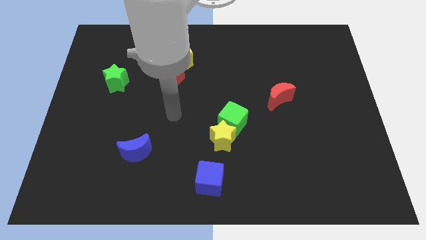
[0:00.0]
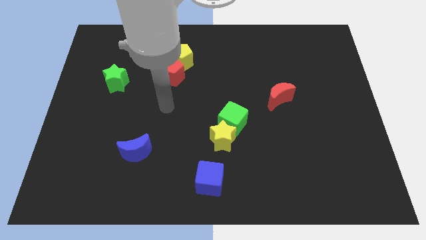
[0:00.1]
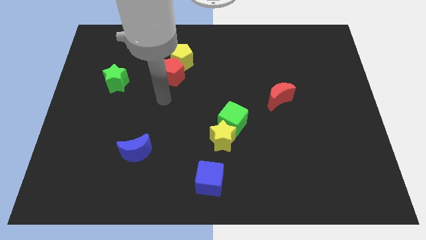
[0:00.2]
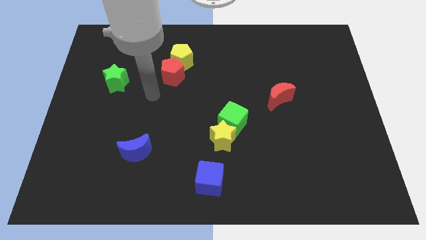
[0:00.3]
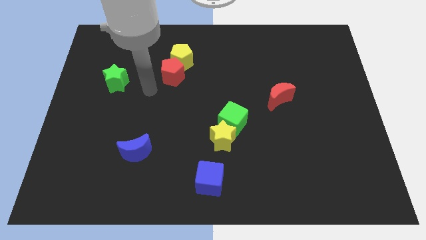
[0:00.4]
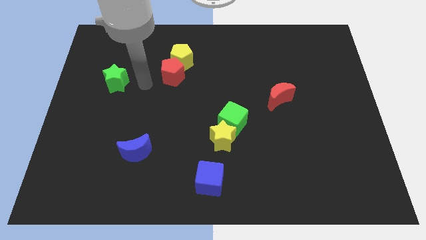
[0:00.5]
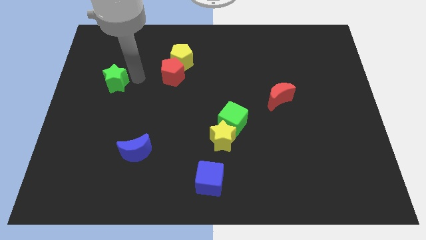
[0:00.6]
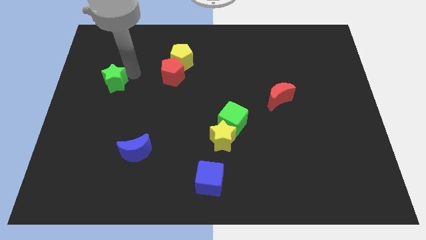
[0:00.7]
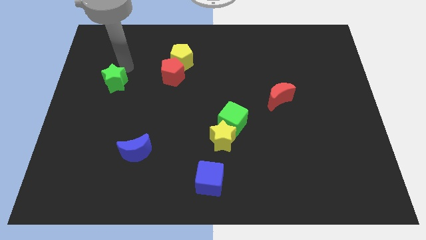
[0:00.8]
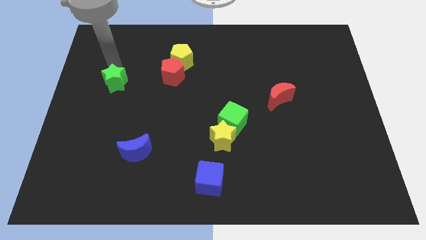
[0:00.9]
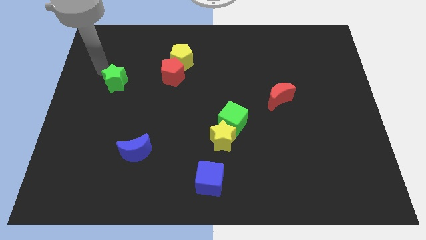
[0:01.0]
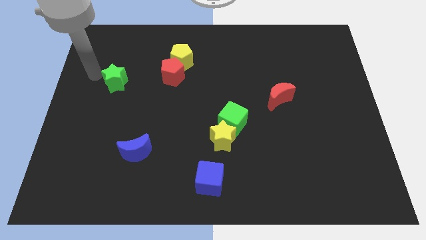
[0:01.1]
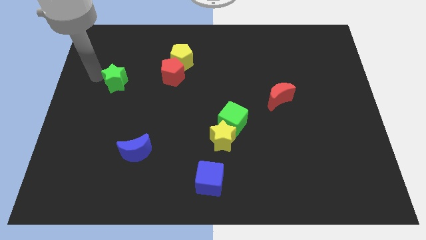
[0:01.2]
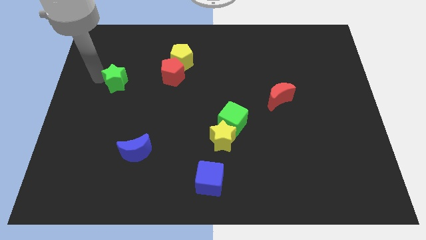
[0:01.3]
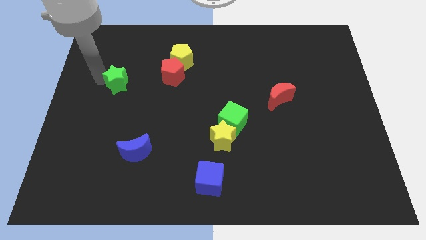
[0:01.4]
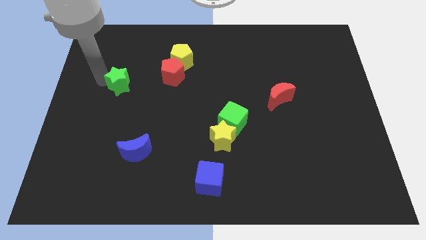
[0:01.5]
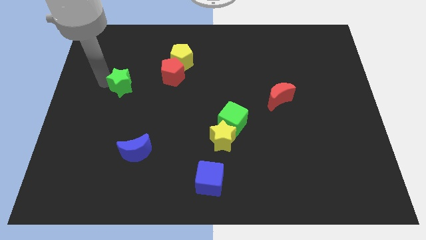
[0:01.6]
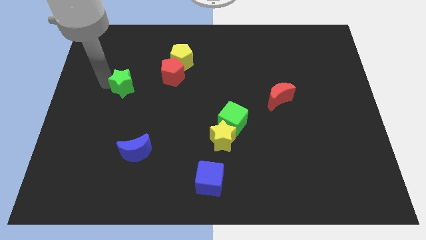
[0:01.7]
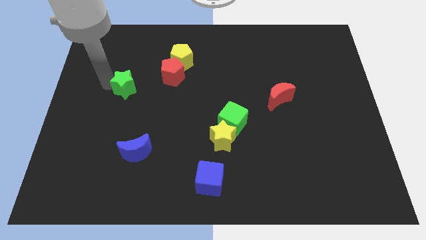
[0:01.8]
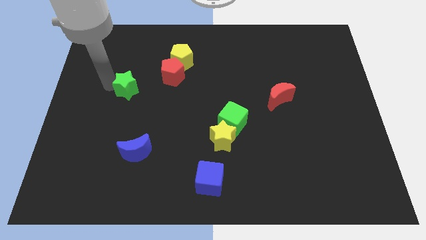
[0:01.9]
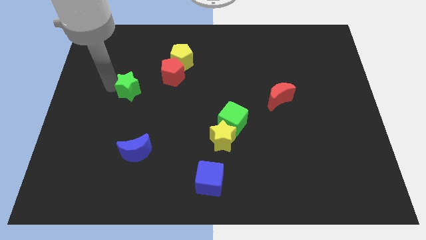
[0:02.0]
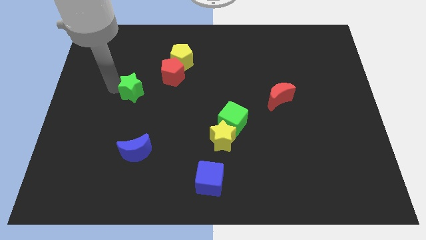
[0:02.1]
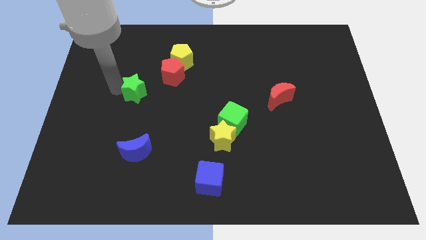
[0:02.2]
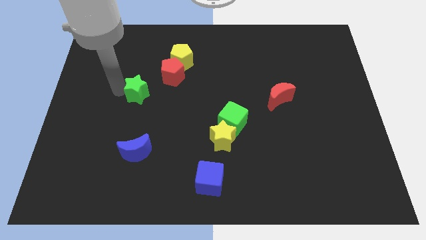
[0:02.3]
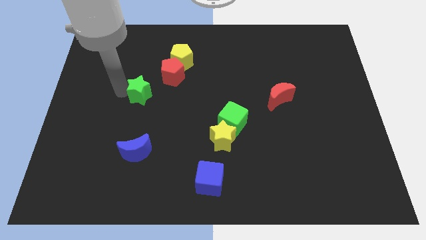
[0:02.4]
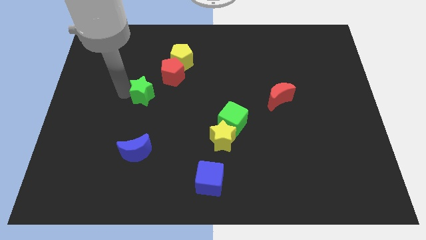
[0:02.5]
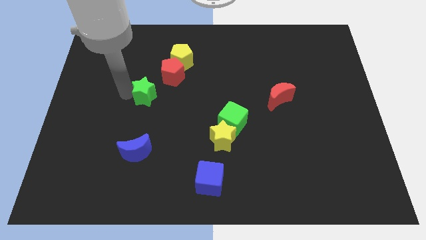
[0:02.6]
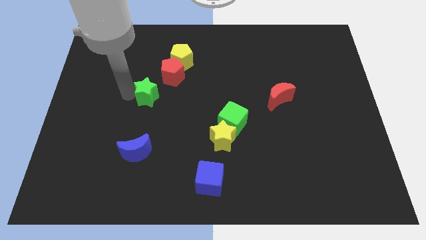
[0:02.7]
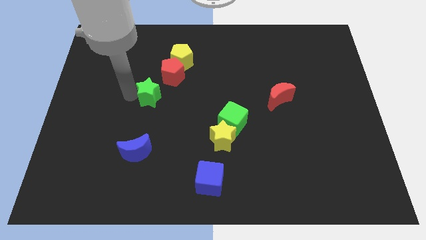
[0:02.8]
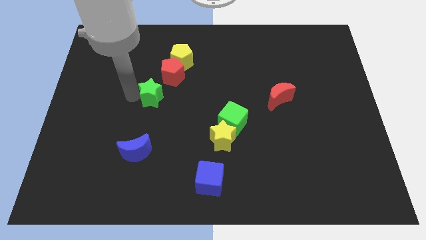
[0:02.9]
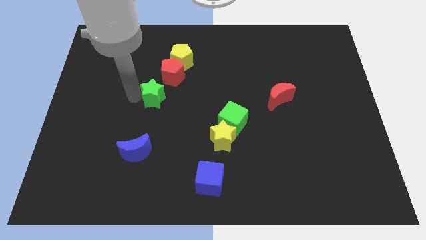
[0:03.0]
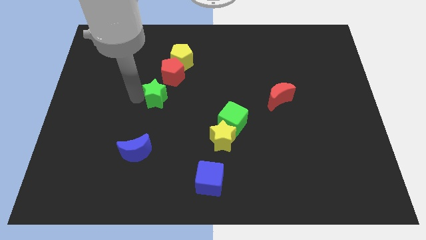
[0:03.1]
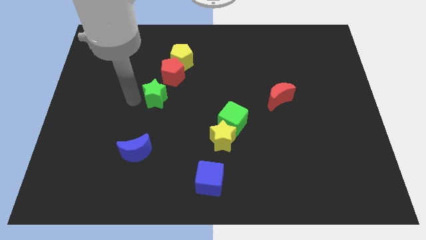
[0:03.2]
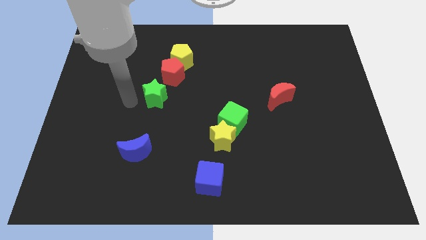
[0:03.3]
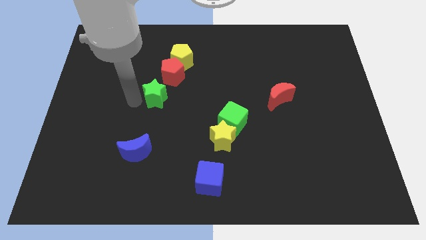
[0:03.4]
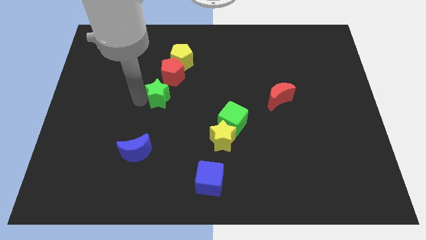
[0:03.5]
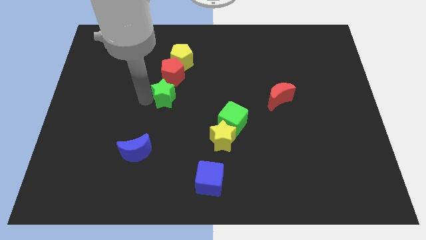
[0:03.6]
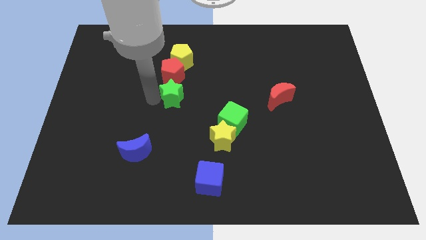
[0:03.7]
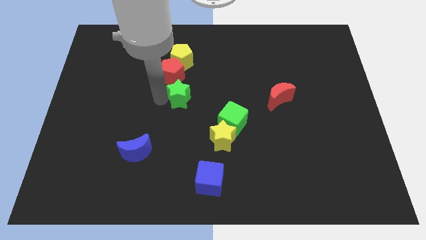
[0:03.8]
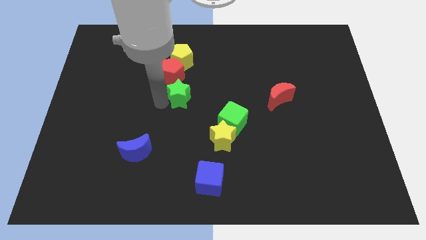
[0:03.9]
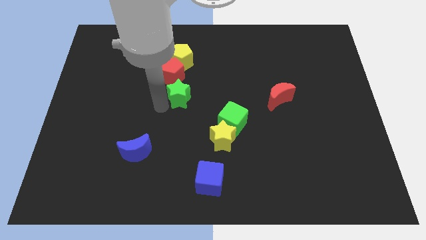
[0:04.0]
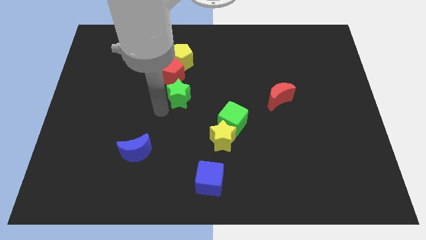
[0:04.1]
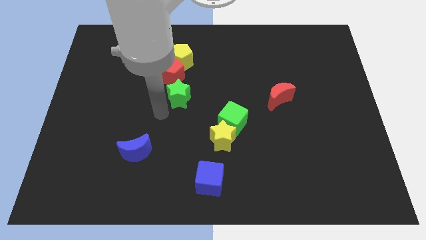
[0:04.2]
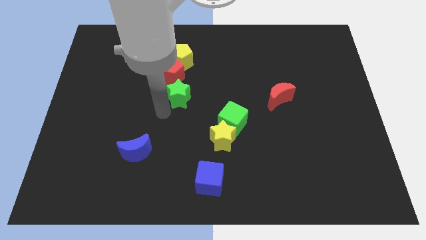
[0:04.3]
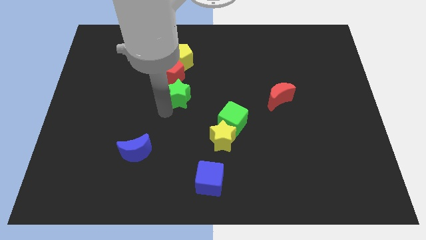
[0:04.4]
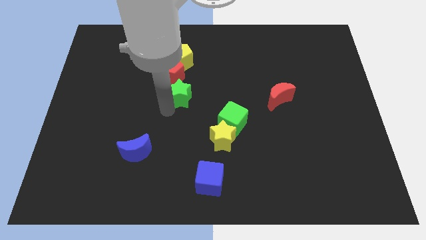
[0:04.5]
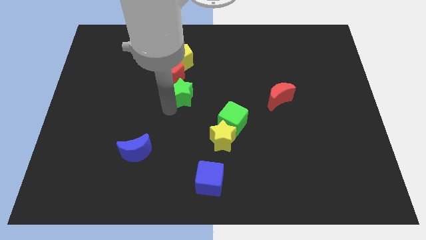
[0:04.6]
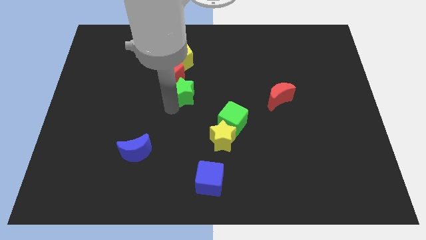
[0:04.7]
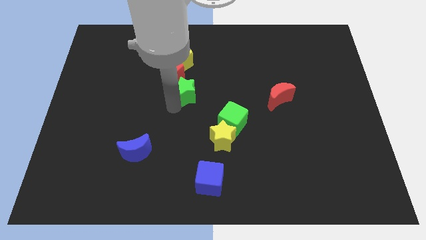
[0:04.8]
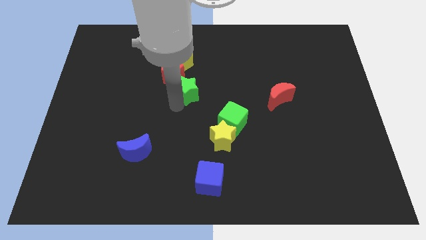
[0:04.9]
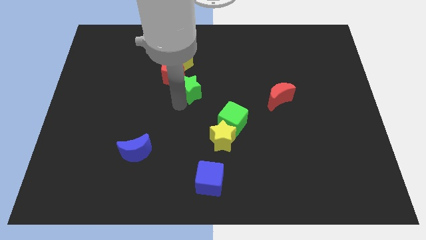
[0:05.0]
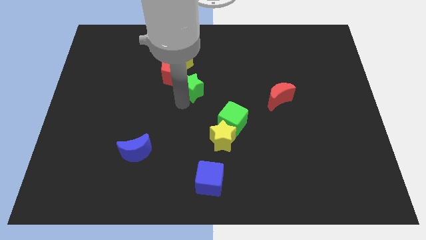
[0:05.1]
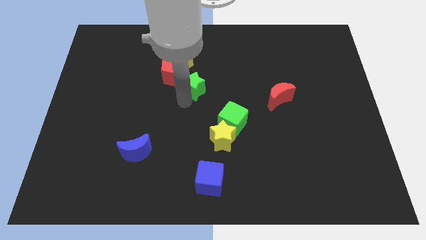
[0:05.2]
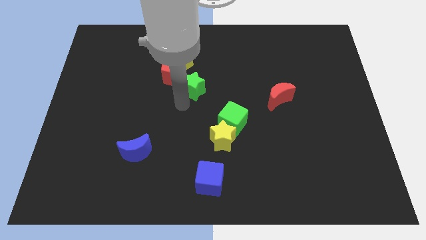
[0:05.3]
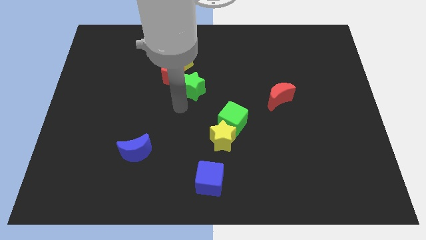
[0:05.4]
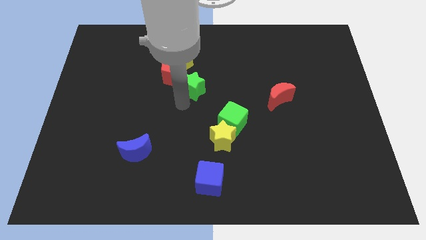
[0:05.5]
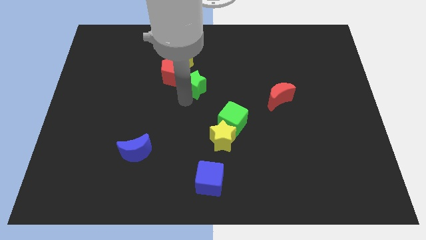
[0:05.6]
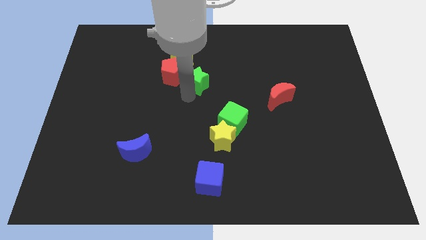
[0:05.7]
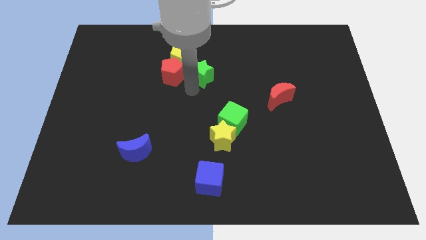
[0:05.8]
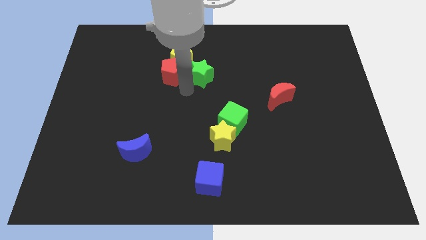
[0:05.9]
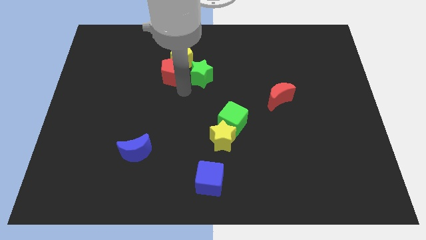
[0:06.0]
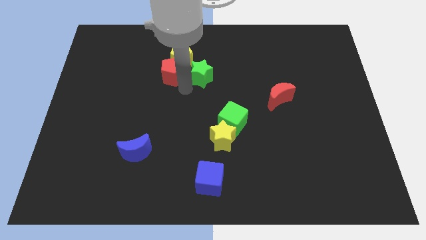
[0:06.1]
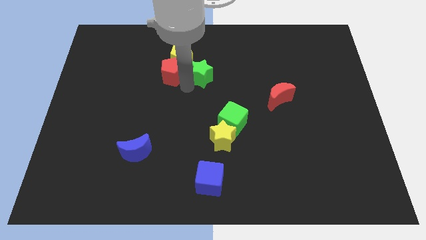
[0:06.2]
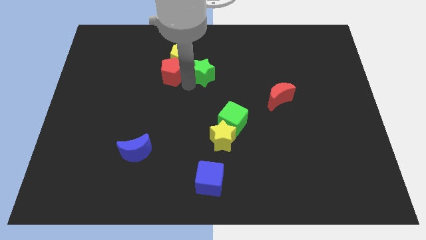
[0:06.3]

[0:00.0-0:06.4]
move the green star just right of the yellow pentagon

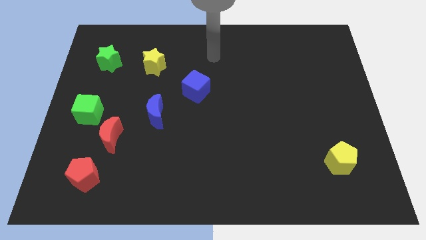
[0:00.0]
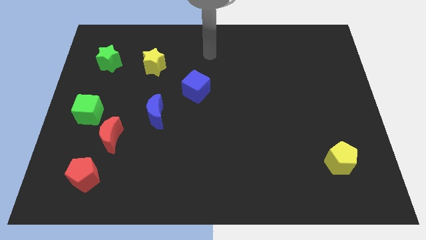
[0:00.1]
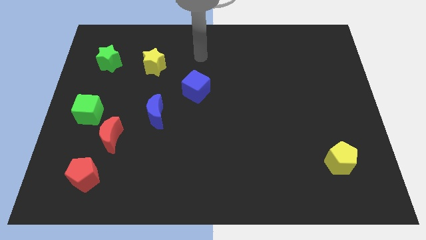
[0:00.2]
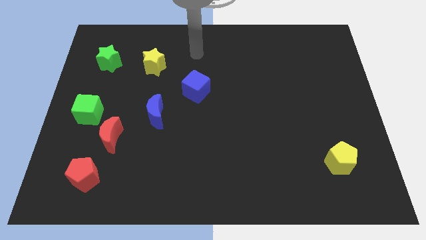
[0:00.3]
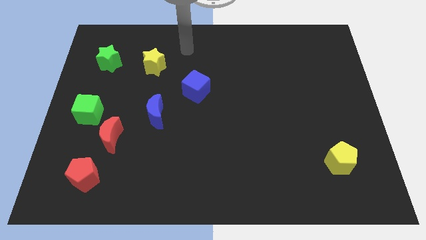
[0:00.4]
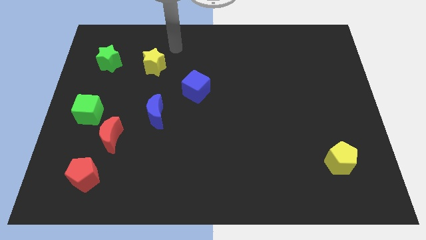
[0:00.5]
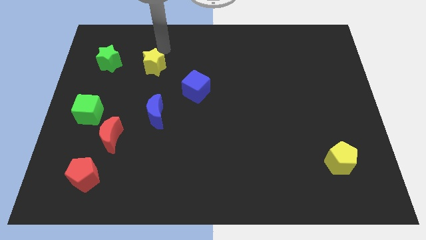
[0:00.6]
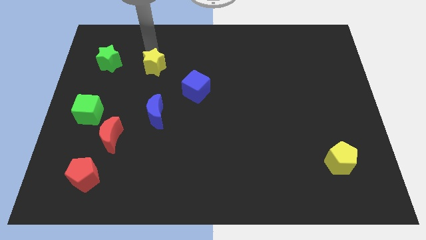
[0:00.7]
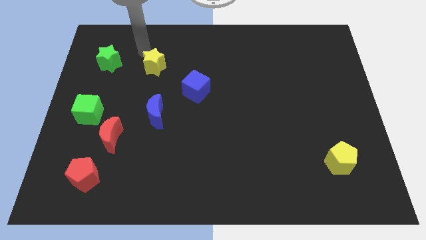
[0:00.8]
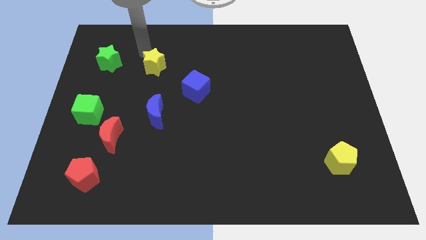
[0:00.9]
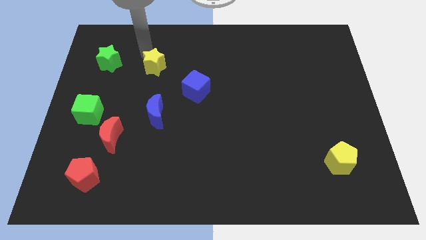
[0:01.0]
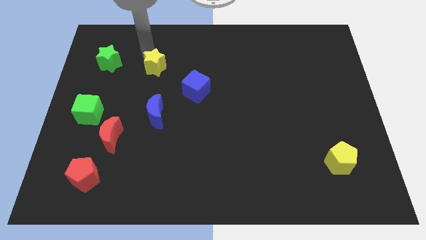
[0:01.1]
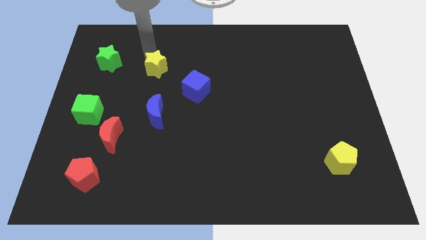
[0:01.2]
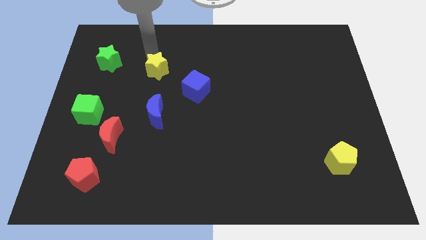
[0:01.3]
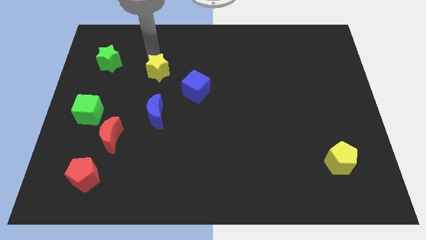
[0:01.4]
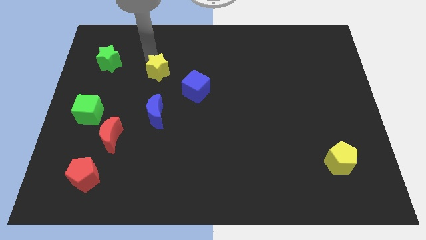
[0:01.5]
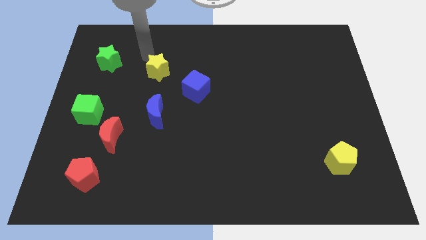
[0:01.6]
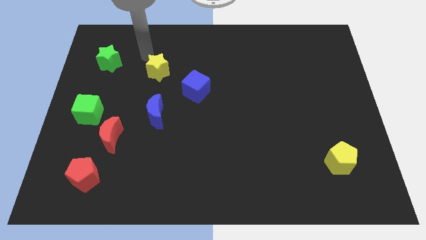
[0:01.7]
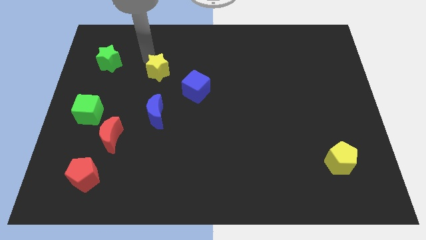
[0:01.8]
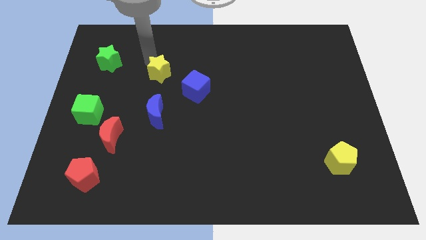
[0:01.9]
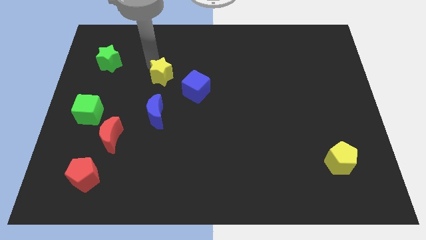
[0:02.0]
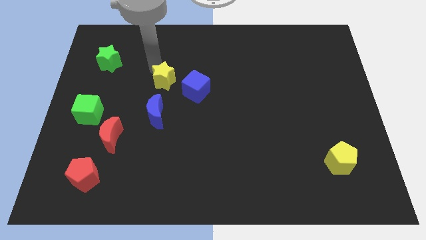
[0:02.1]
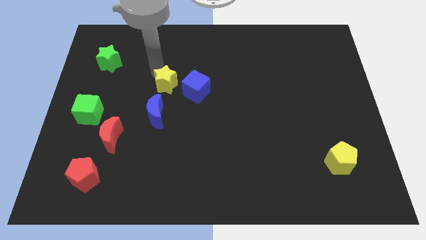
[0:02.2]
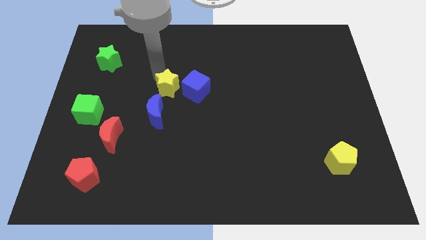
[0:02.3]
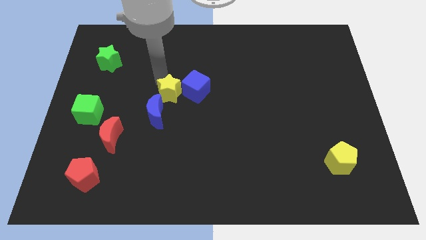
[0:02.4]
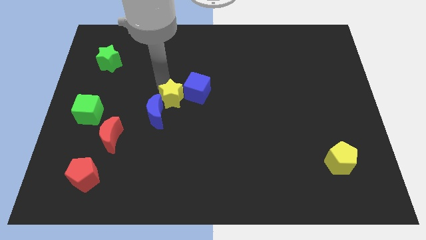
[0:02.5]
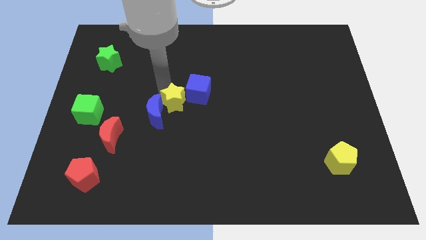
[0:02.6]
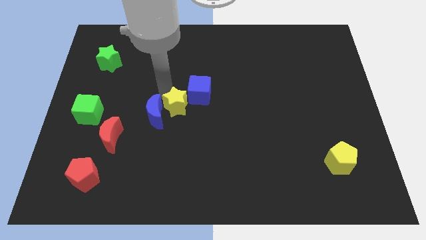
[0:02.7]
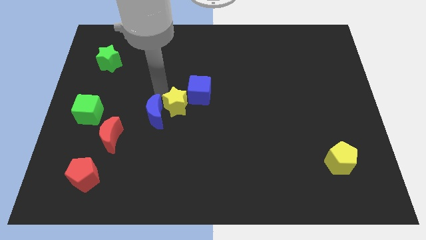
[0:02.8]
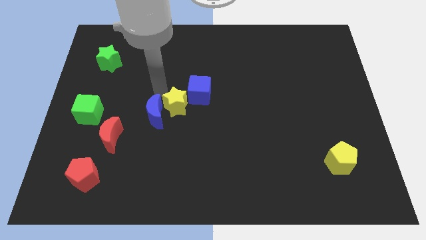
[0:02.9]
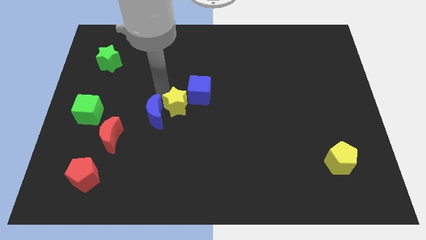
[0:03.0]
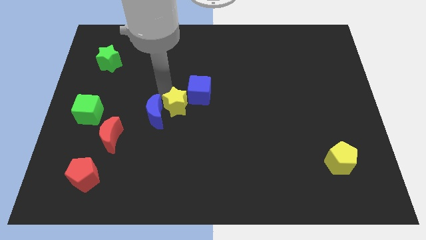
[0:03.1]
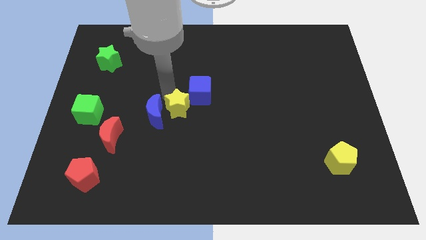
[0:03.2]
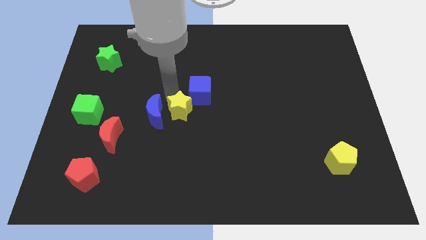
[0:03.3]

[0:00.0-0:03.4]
put the yellow star below the blue cube
